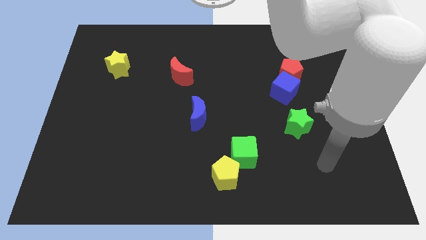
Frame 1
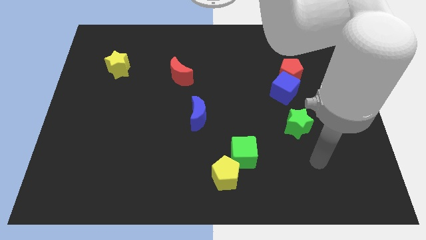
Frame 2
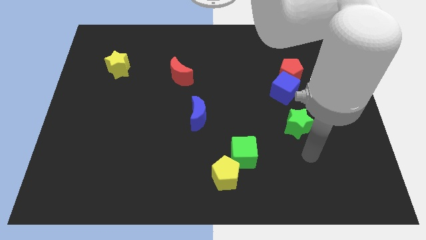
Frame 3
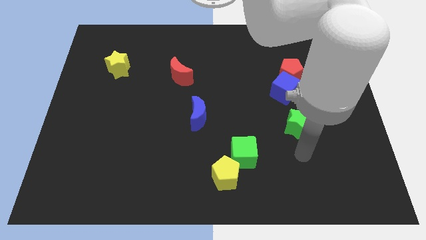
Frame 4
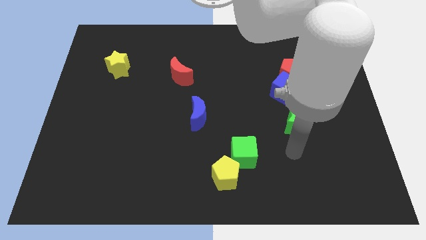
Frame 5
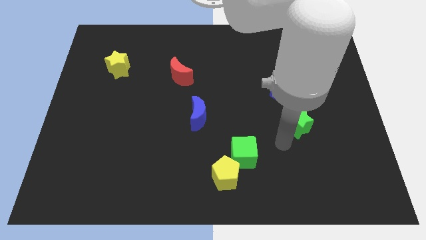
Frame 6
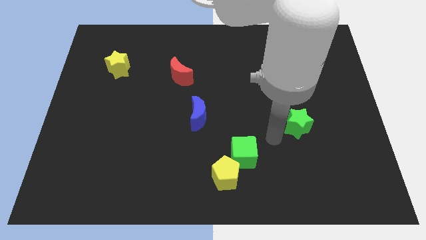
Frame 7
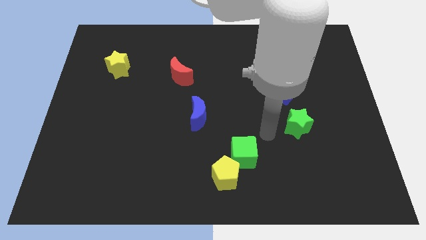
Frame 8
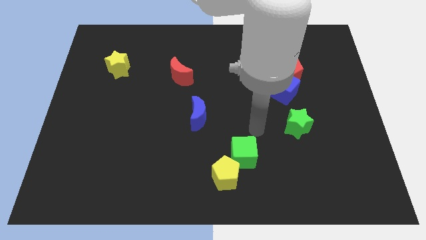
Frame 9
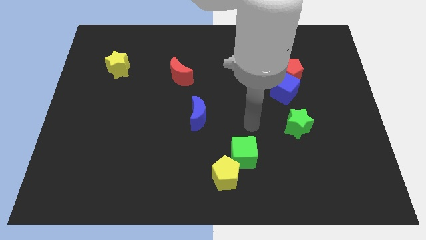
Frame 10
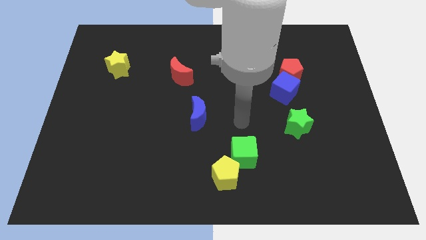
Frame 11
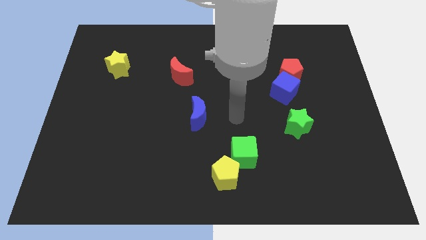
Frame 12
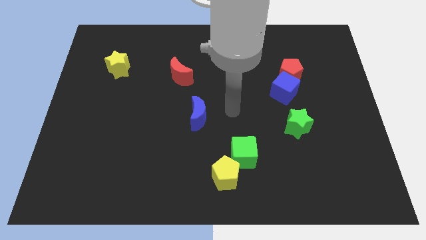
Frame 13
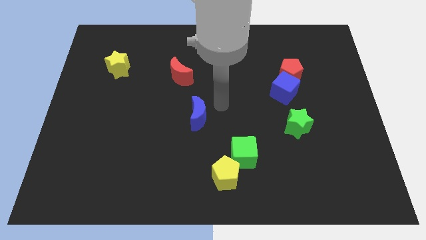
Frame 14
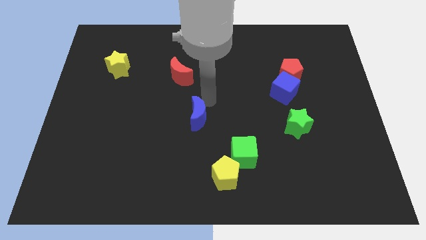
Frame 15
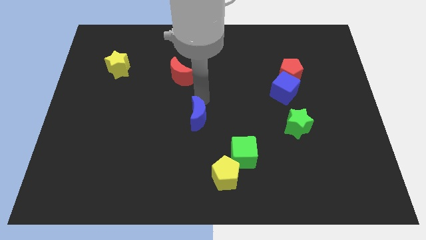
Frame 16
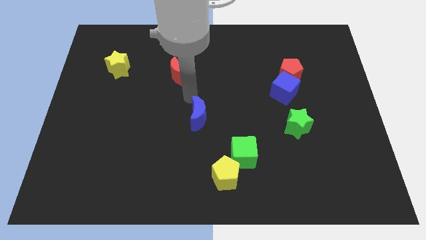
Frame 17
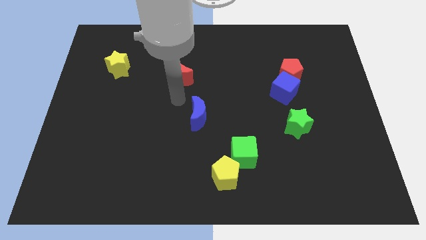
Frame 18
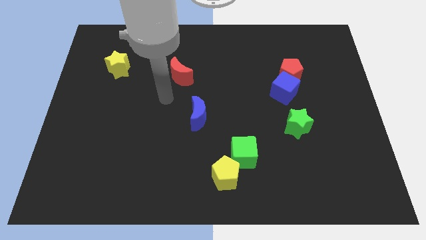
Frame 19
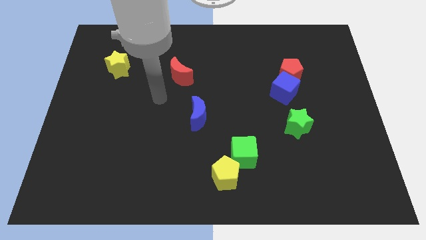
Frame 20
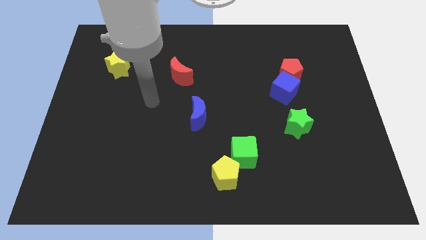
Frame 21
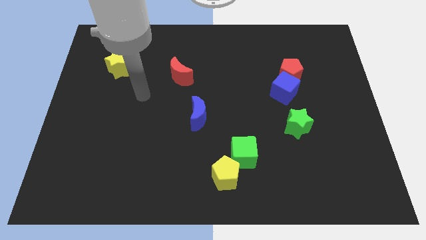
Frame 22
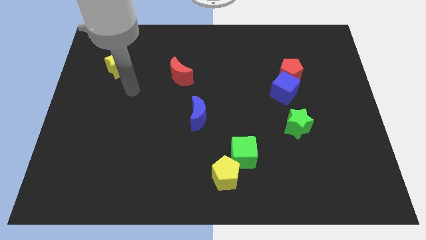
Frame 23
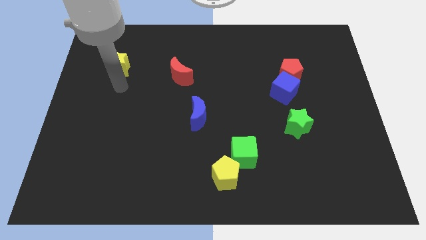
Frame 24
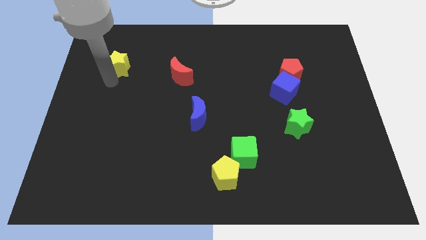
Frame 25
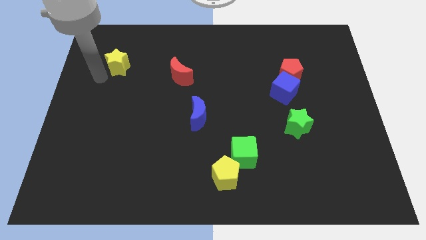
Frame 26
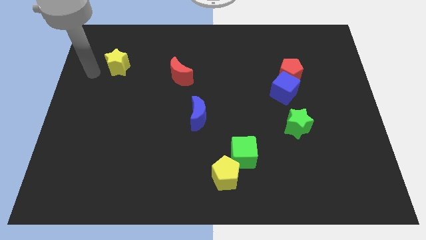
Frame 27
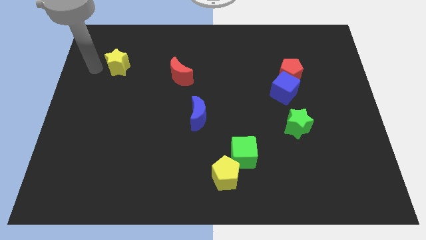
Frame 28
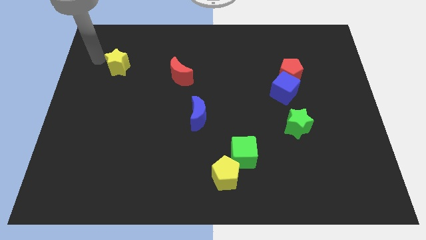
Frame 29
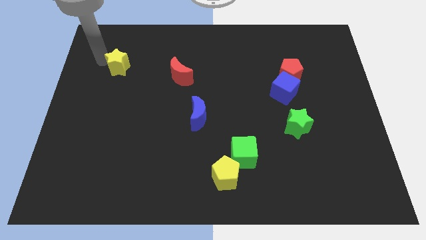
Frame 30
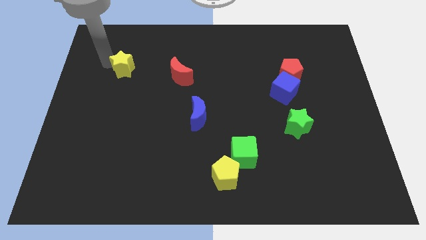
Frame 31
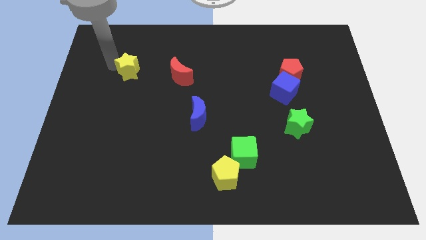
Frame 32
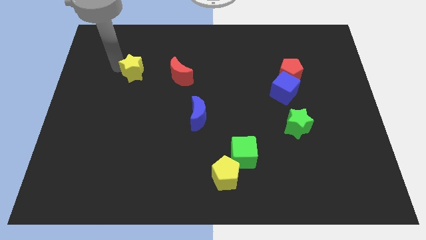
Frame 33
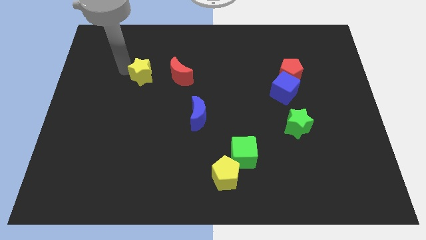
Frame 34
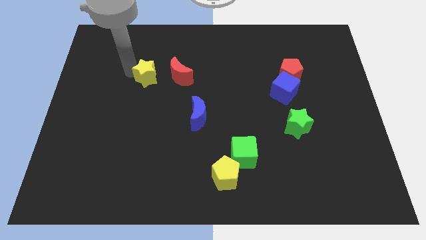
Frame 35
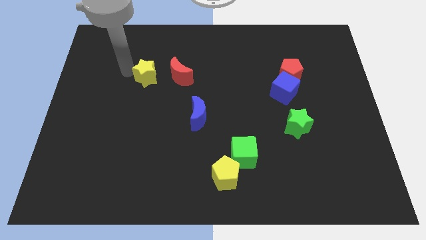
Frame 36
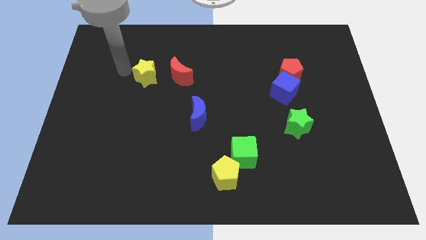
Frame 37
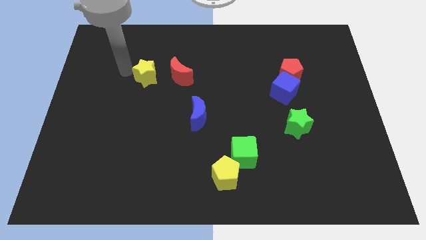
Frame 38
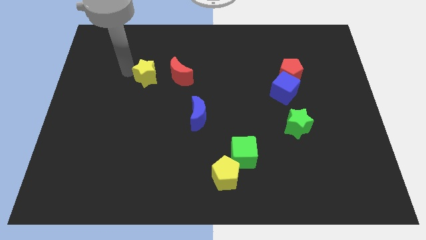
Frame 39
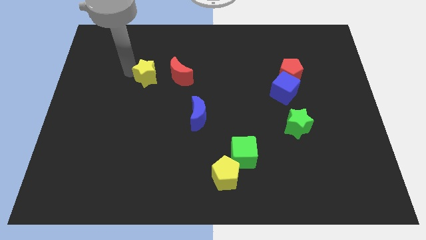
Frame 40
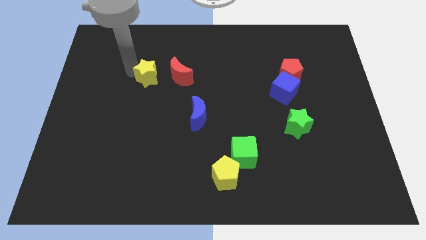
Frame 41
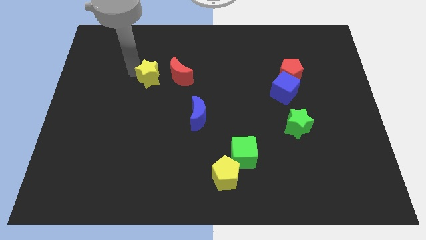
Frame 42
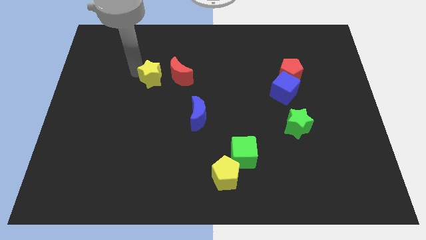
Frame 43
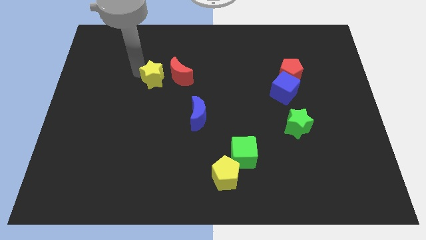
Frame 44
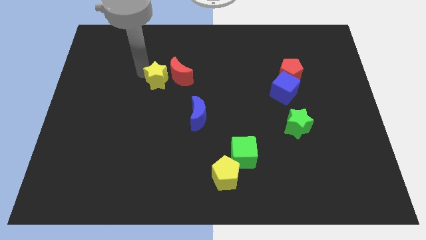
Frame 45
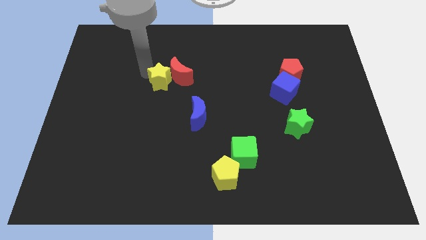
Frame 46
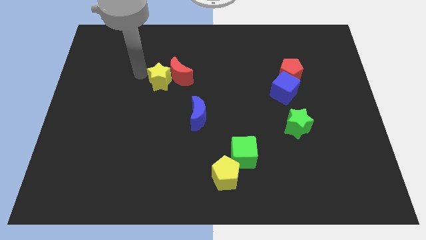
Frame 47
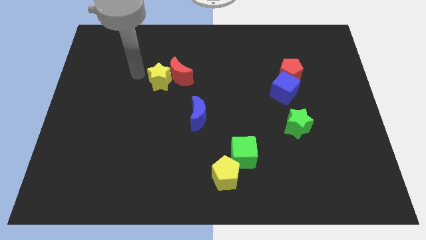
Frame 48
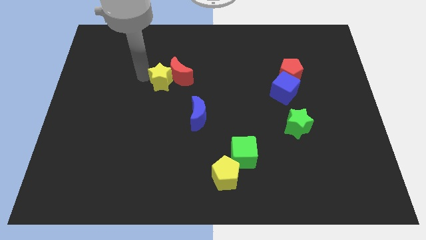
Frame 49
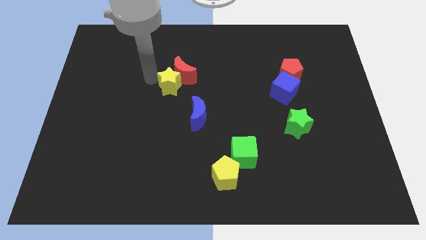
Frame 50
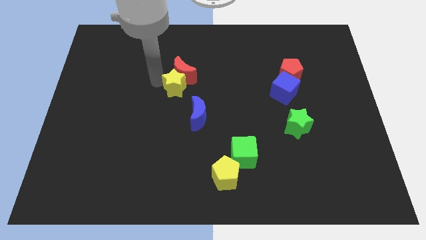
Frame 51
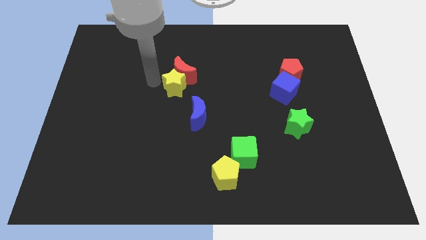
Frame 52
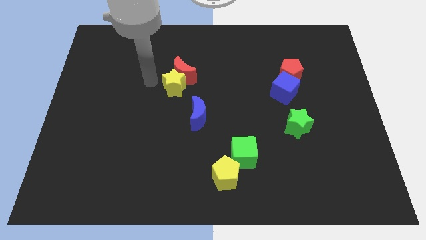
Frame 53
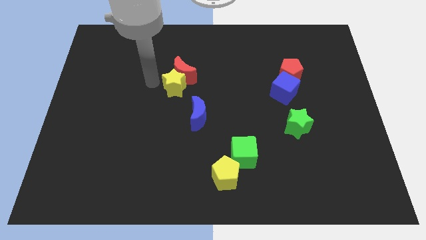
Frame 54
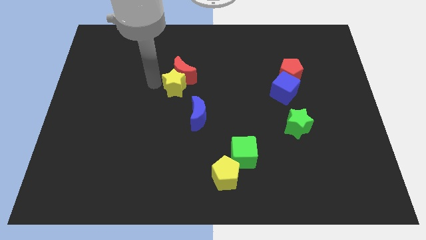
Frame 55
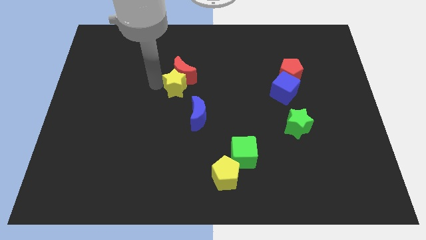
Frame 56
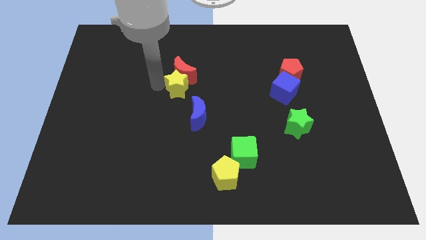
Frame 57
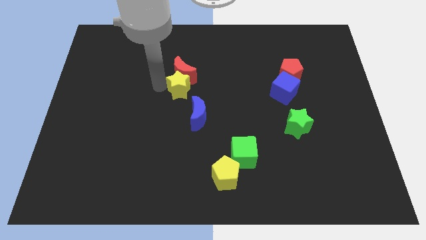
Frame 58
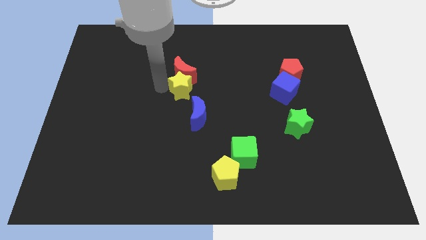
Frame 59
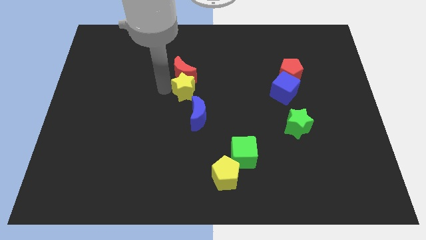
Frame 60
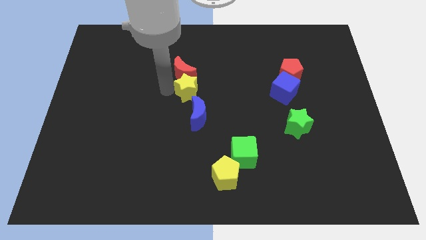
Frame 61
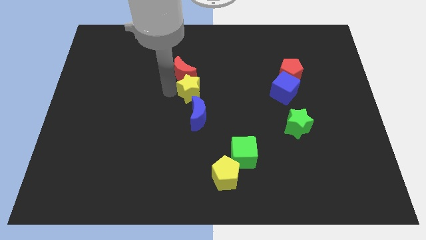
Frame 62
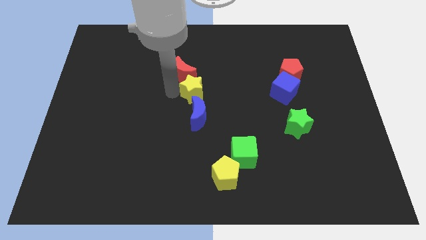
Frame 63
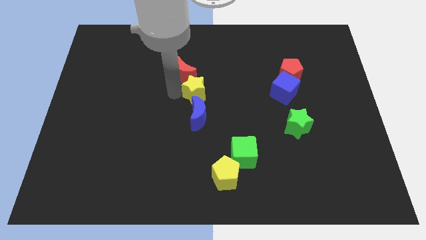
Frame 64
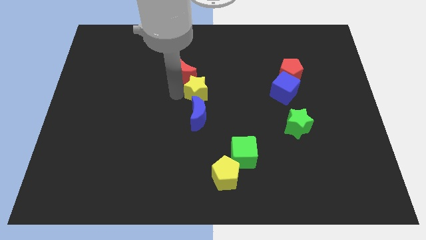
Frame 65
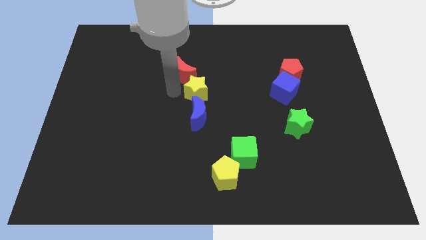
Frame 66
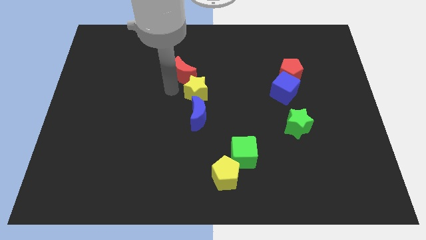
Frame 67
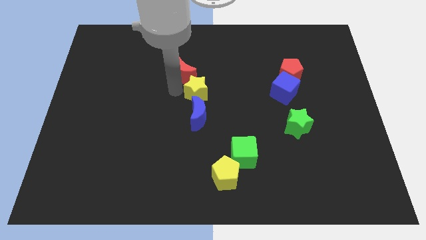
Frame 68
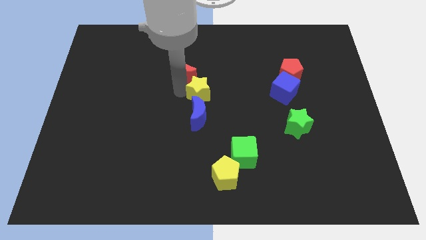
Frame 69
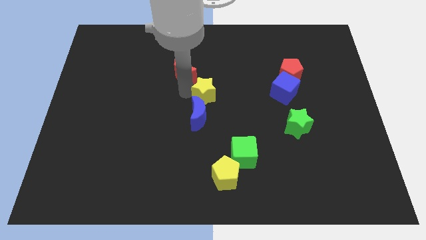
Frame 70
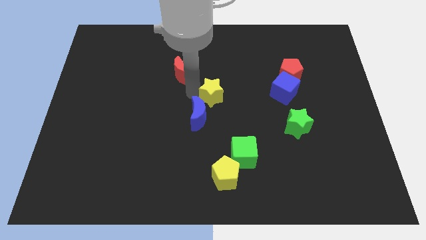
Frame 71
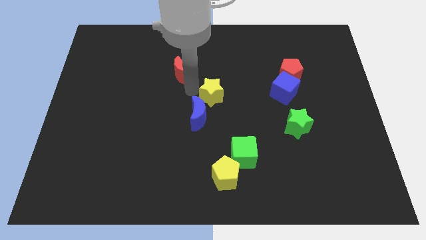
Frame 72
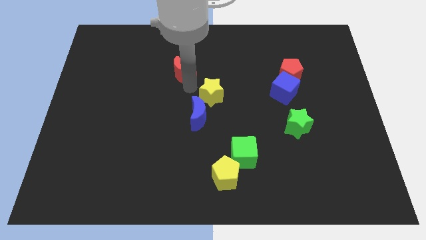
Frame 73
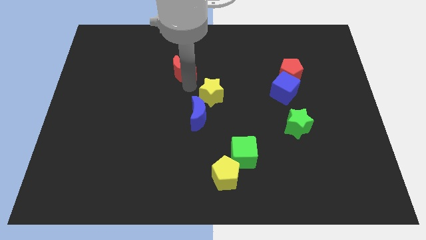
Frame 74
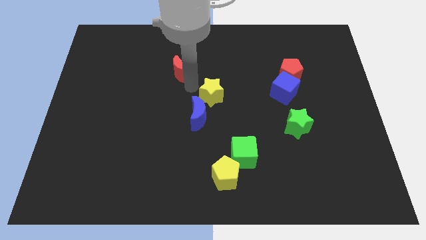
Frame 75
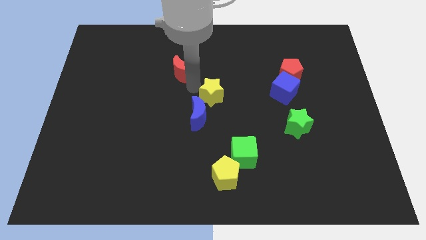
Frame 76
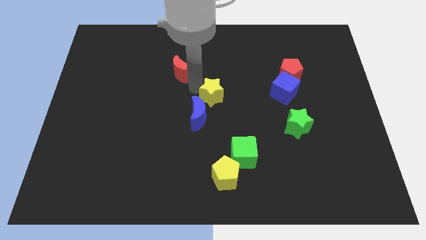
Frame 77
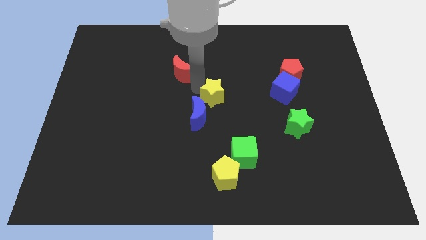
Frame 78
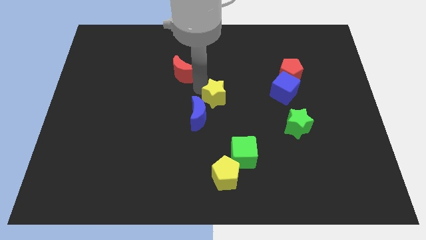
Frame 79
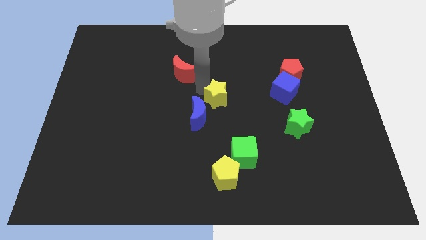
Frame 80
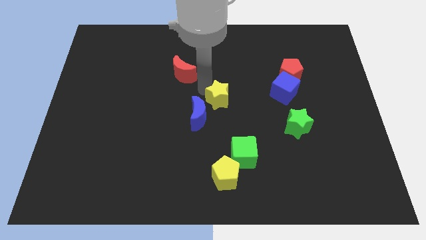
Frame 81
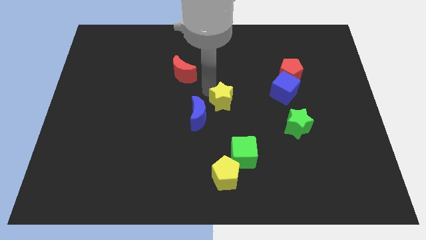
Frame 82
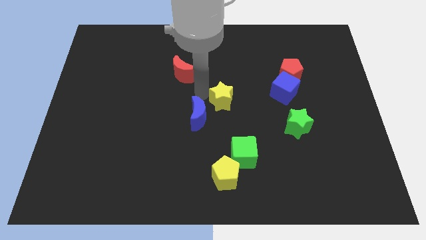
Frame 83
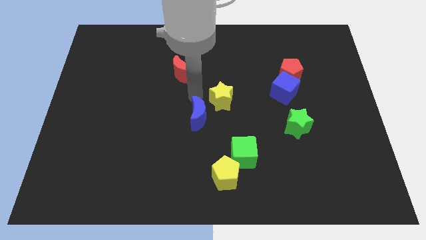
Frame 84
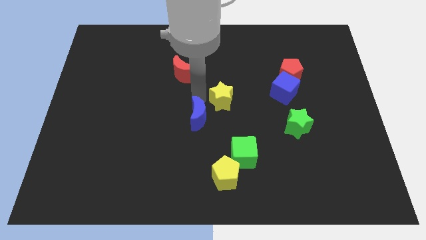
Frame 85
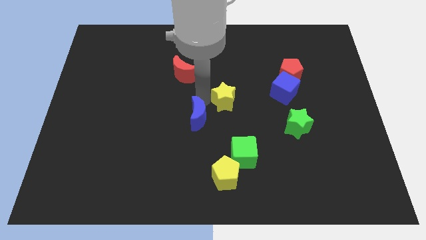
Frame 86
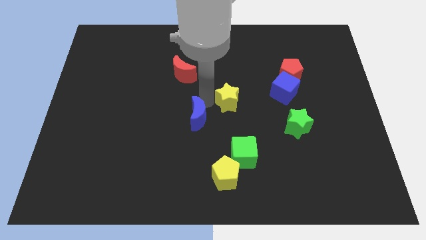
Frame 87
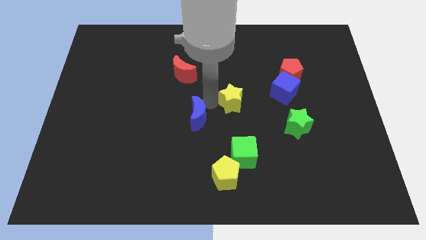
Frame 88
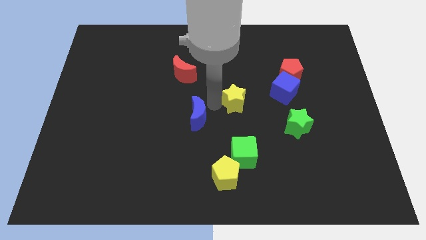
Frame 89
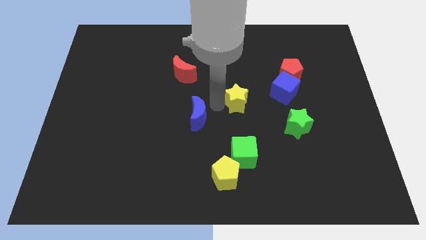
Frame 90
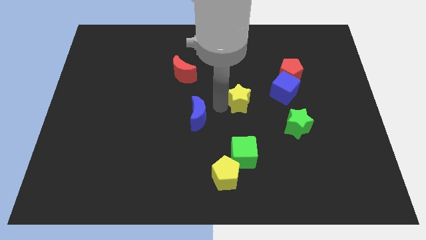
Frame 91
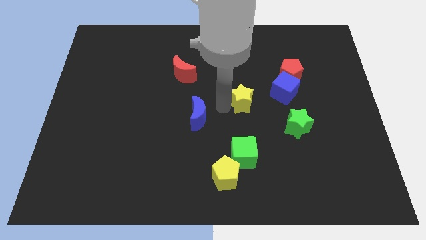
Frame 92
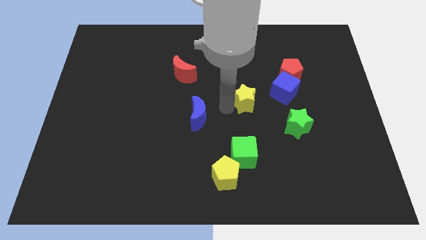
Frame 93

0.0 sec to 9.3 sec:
slide the yellow star to the bottom left side of the blue cube
